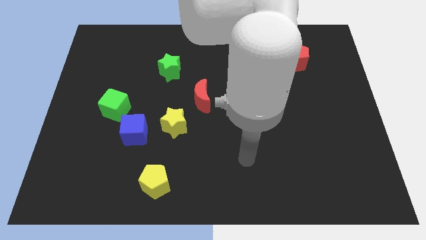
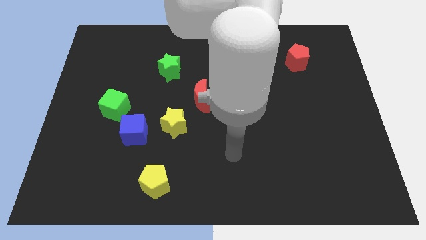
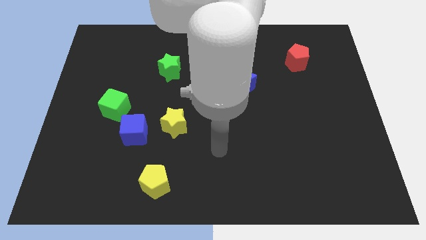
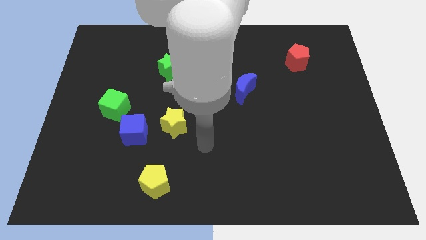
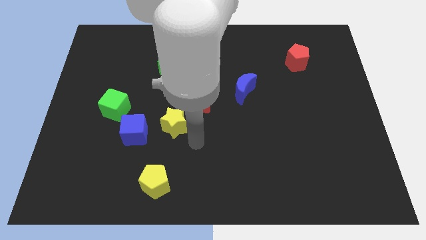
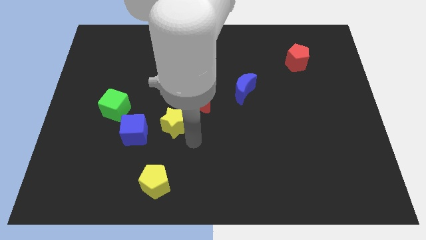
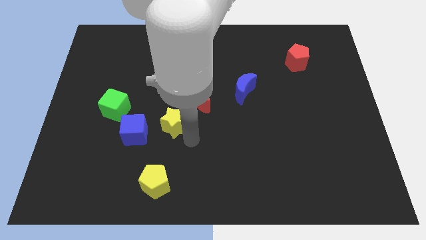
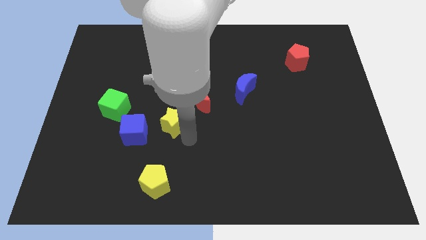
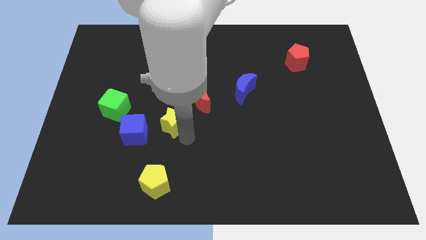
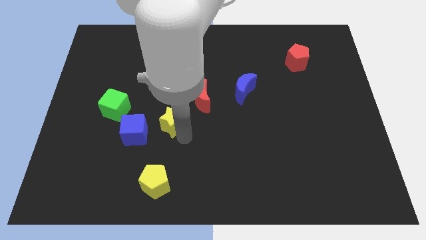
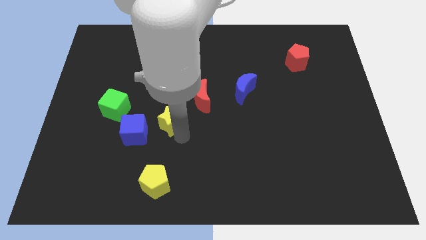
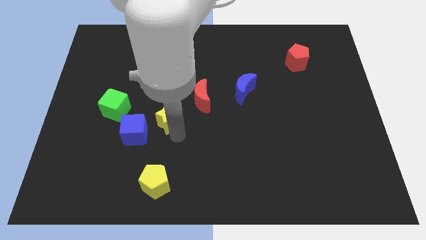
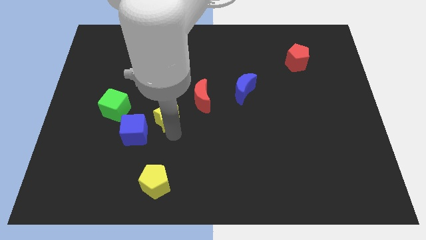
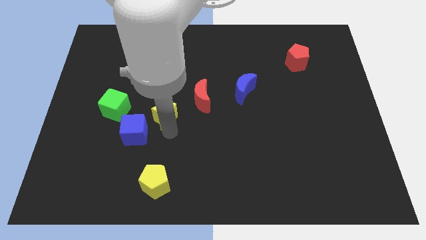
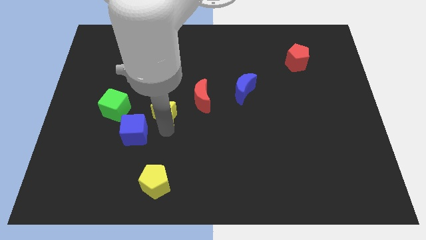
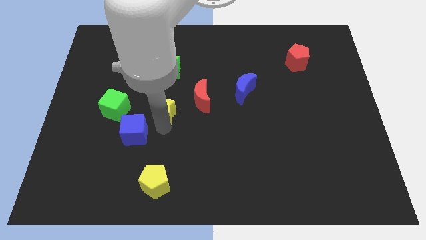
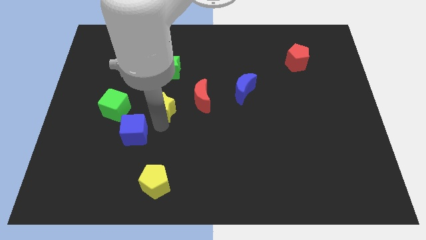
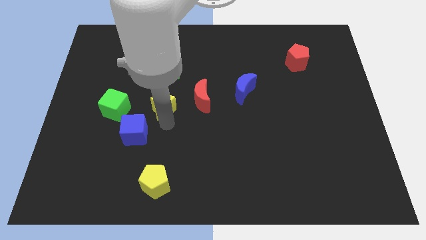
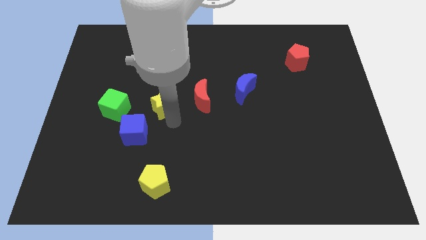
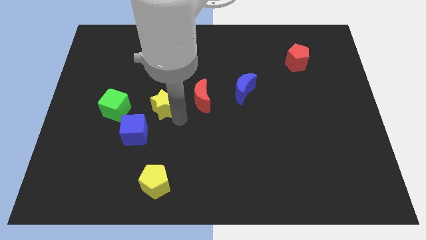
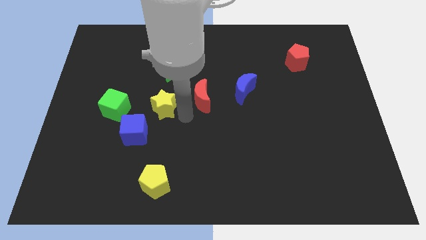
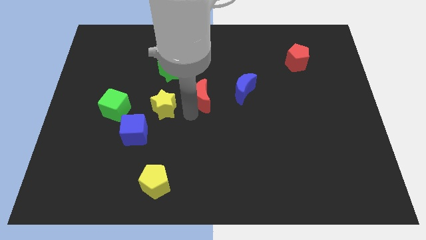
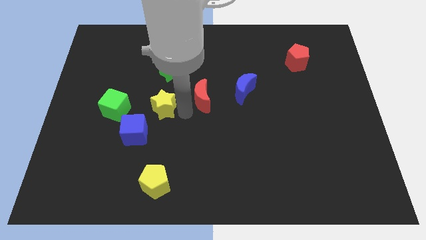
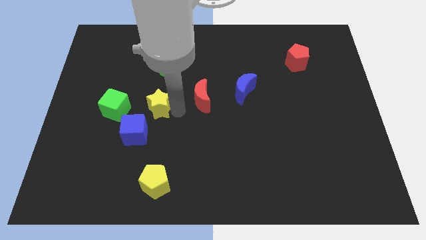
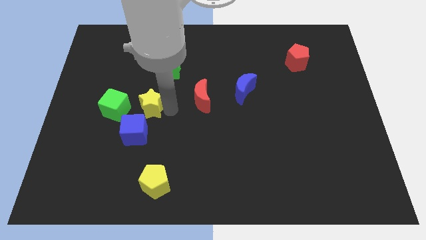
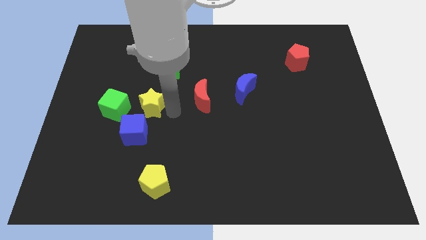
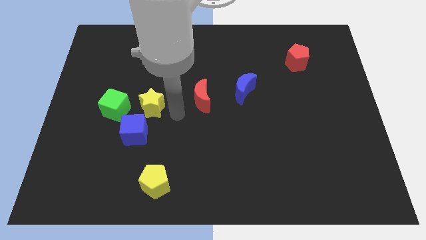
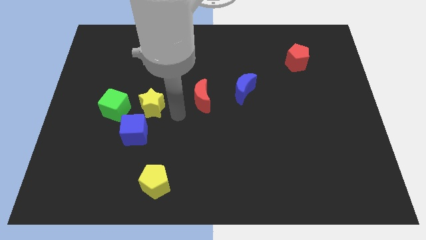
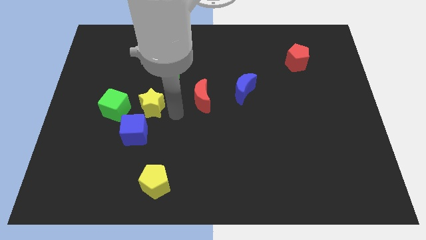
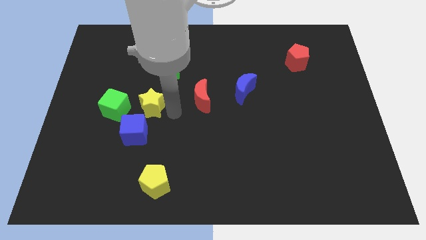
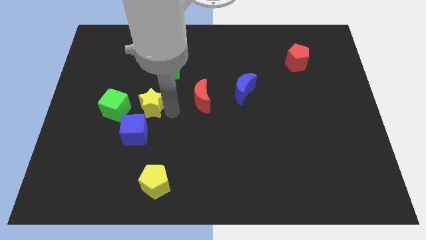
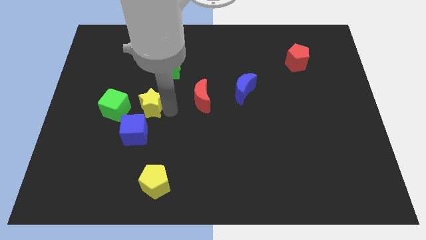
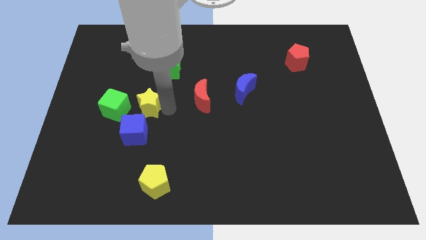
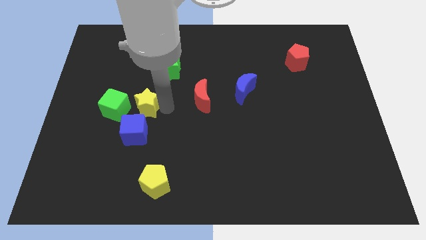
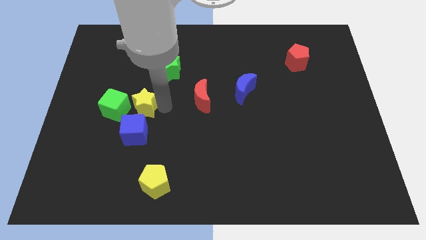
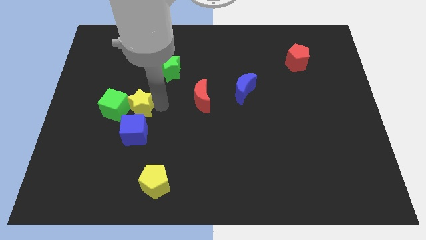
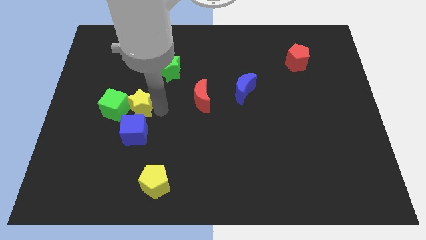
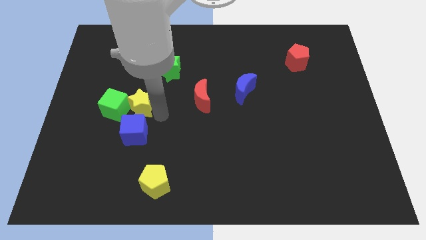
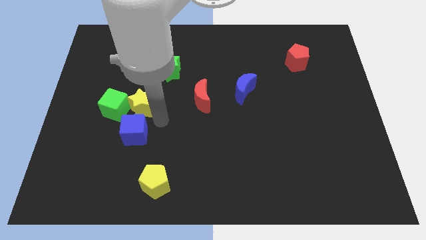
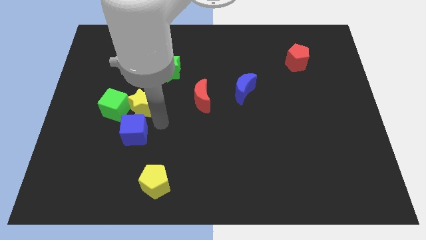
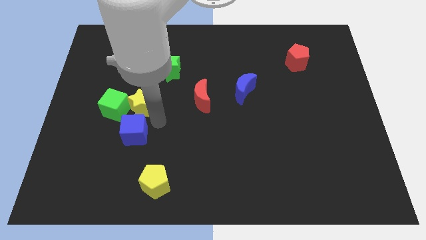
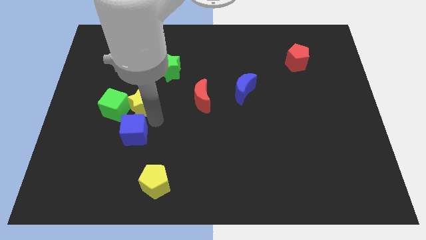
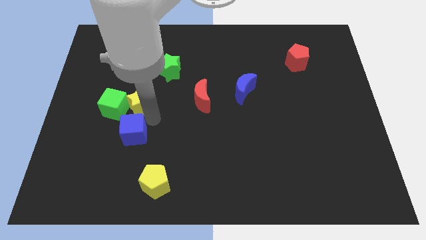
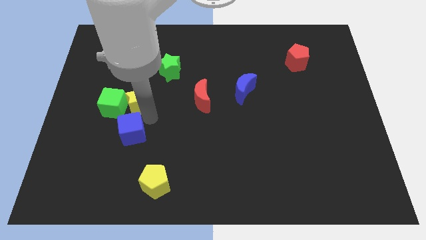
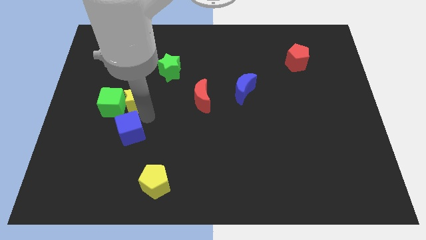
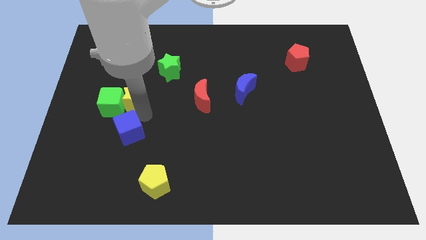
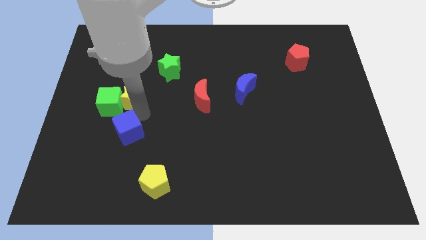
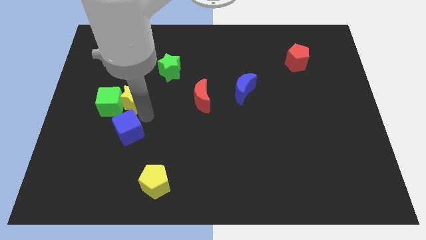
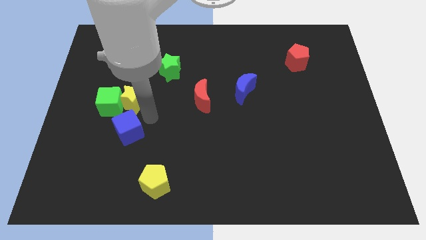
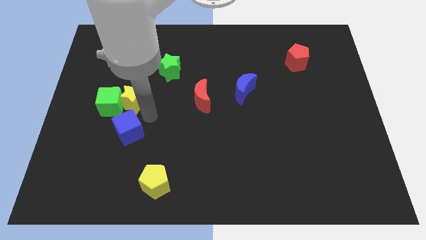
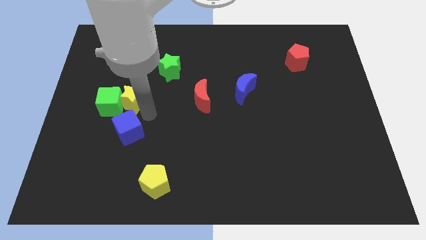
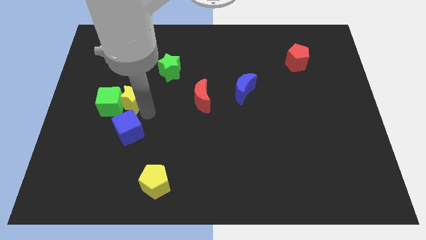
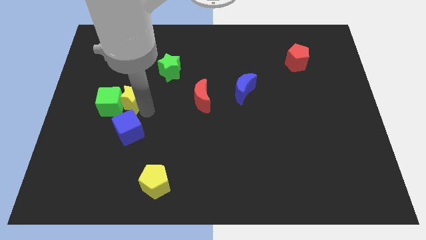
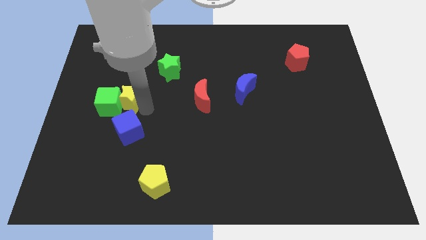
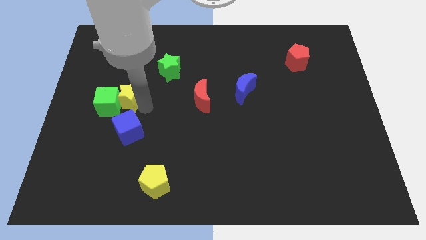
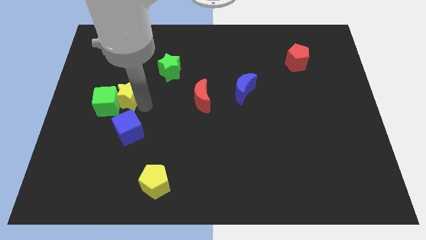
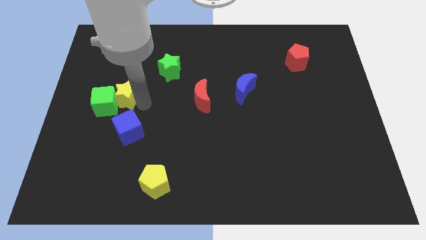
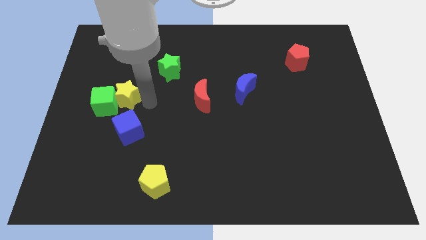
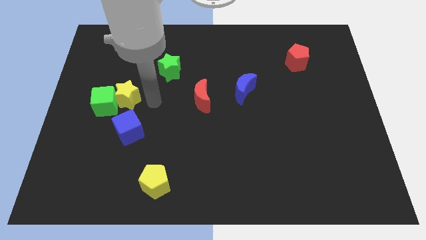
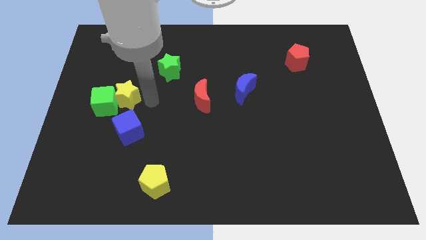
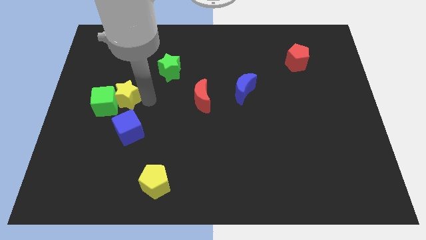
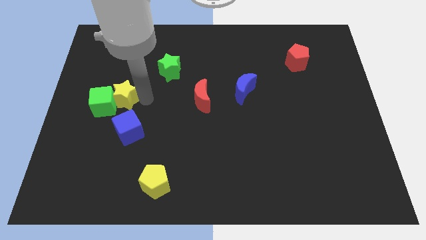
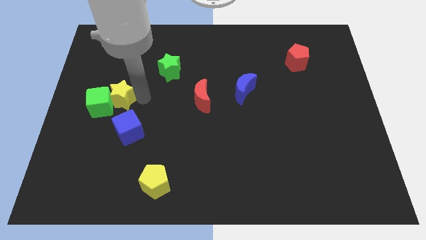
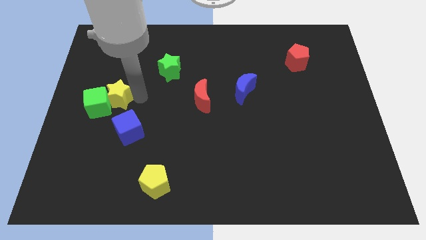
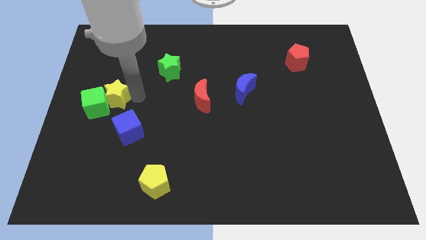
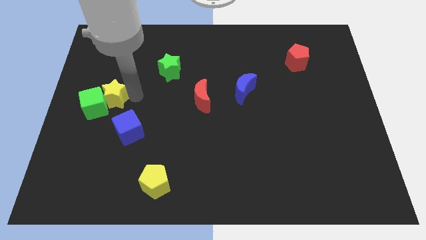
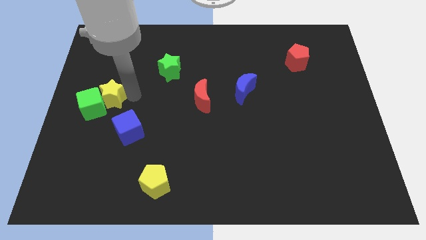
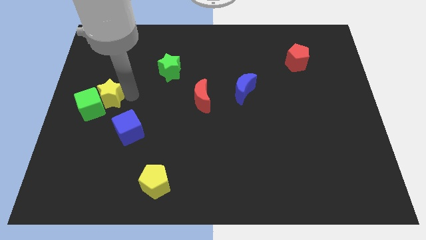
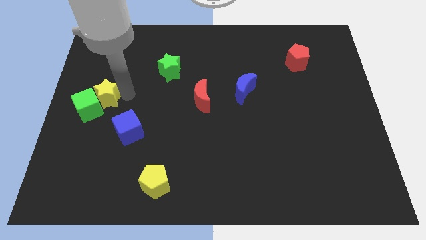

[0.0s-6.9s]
put the yellow star to the center left
